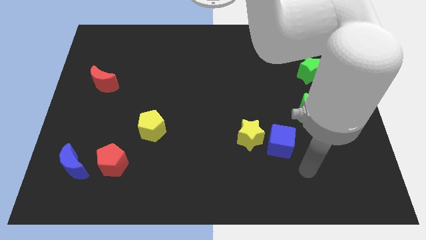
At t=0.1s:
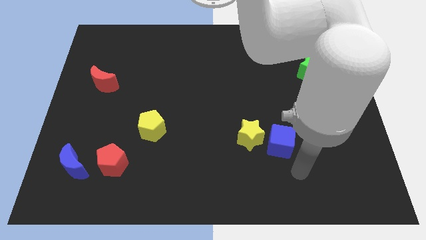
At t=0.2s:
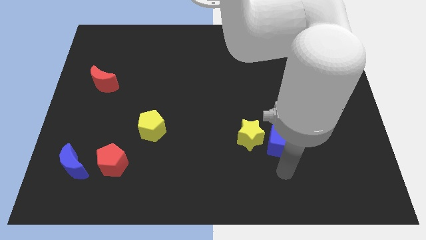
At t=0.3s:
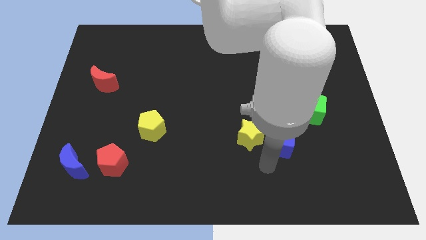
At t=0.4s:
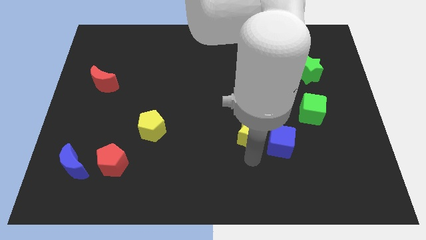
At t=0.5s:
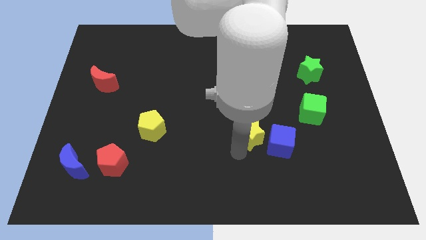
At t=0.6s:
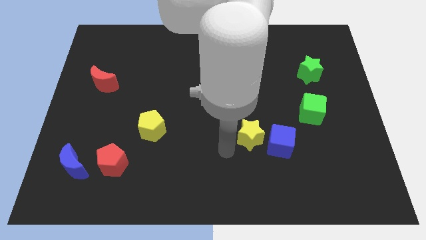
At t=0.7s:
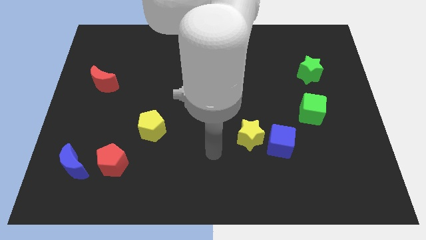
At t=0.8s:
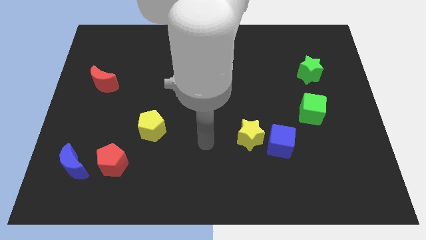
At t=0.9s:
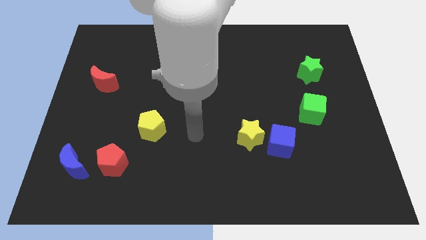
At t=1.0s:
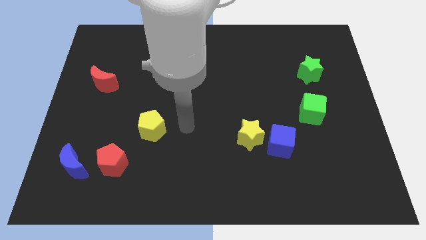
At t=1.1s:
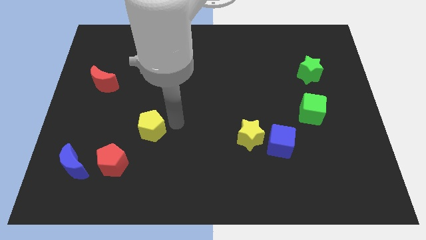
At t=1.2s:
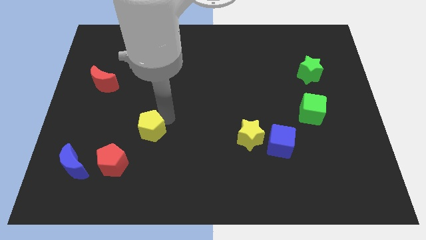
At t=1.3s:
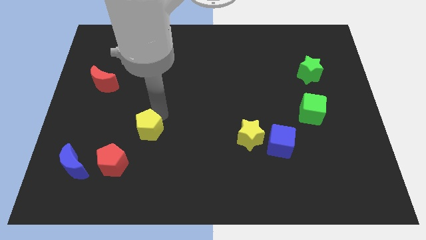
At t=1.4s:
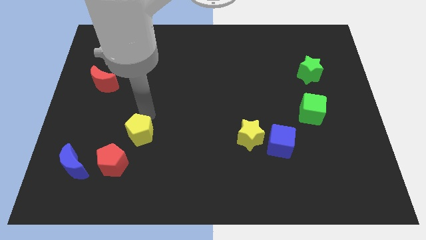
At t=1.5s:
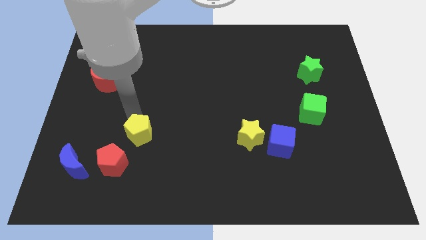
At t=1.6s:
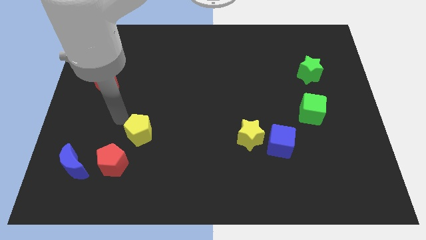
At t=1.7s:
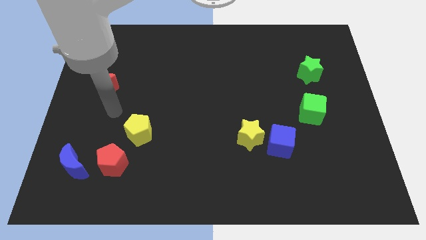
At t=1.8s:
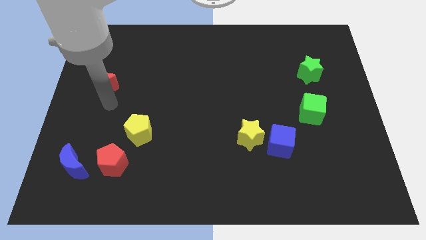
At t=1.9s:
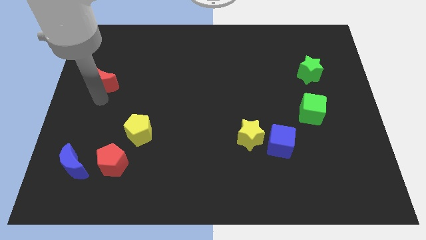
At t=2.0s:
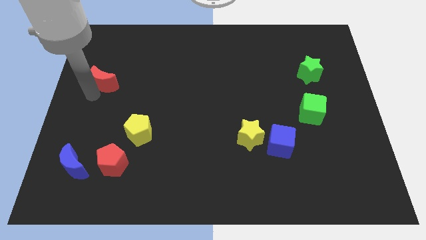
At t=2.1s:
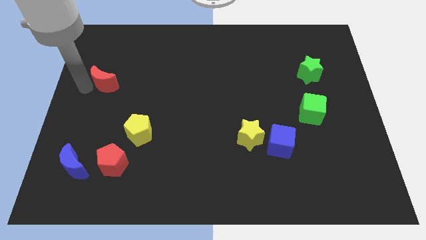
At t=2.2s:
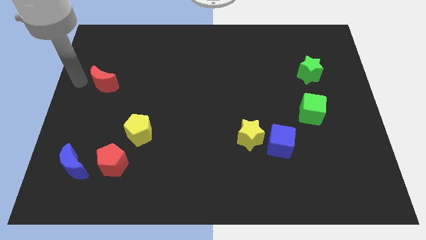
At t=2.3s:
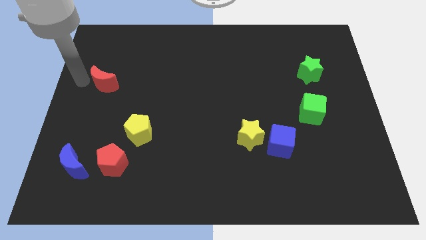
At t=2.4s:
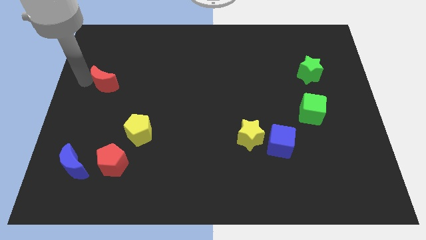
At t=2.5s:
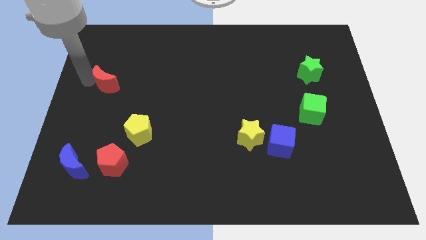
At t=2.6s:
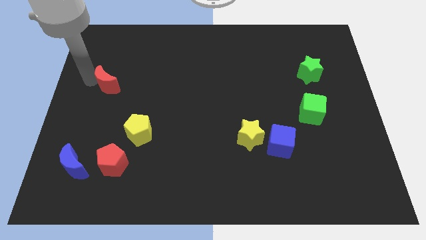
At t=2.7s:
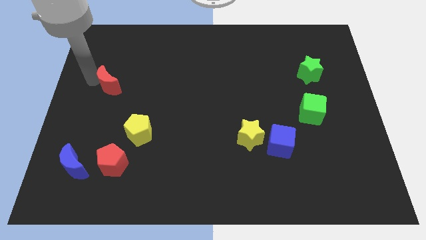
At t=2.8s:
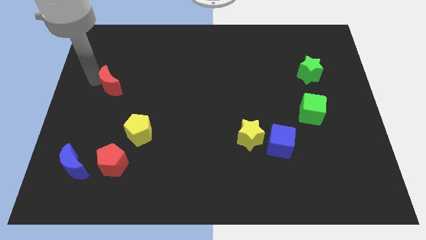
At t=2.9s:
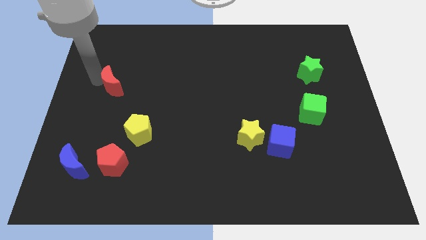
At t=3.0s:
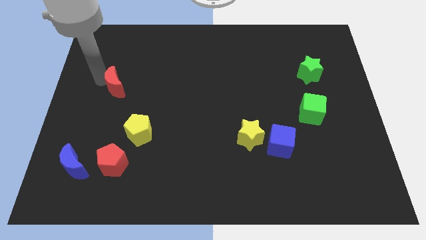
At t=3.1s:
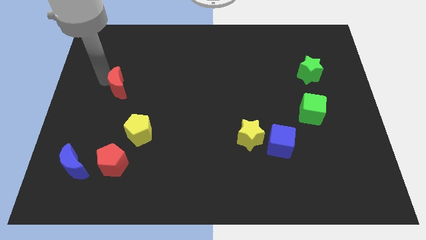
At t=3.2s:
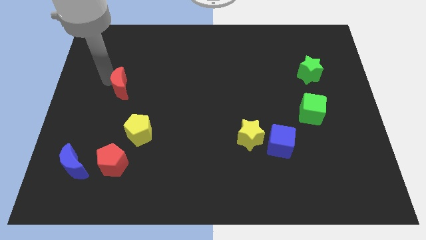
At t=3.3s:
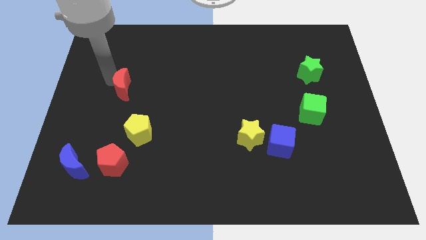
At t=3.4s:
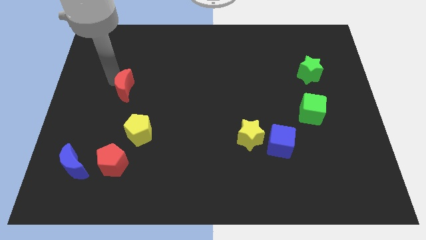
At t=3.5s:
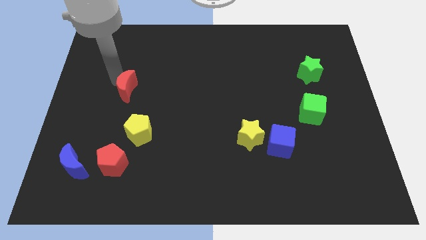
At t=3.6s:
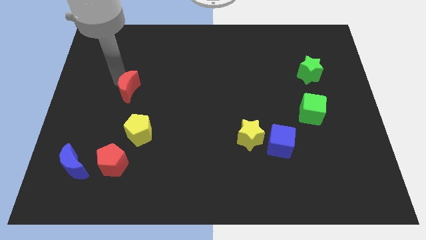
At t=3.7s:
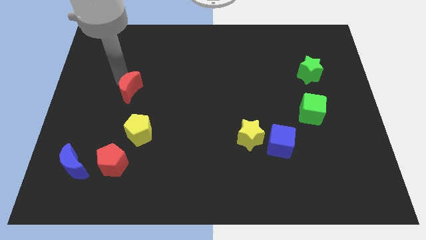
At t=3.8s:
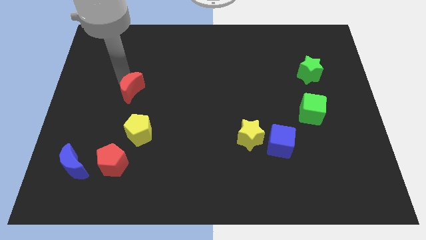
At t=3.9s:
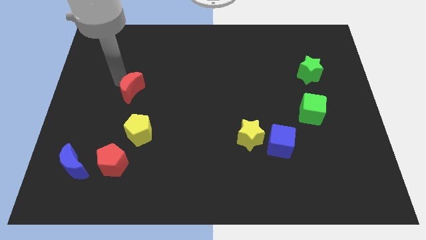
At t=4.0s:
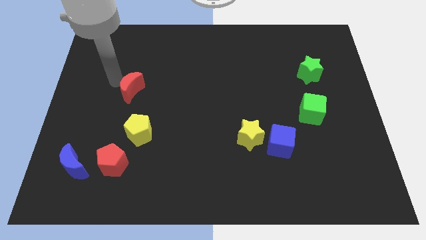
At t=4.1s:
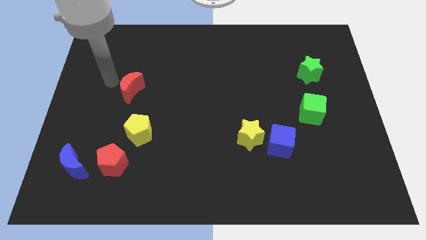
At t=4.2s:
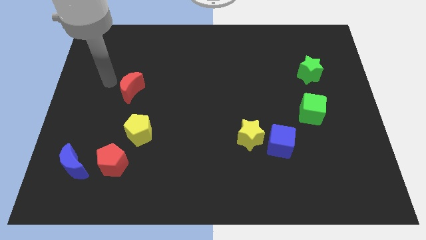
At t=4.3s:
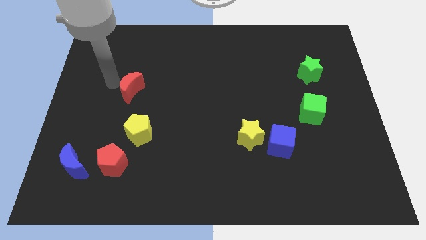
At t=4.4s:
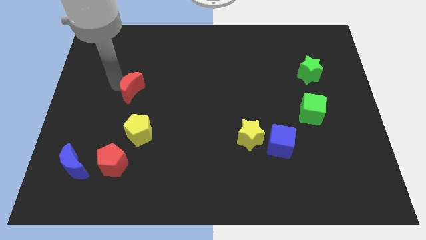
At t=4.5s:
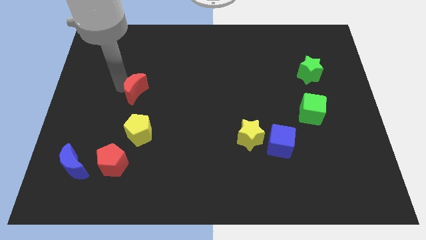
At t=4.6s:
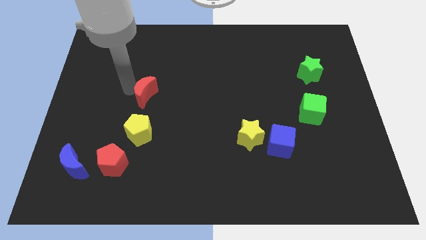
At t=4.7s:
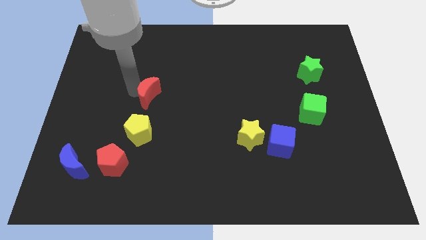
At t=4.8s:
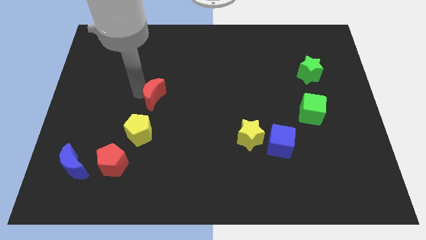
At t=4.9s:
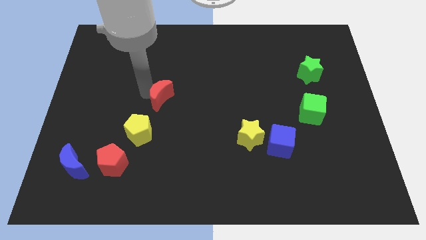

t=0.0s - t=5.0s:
push the red moon diagonally up and to the right of the yellow pentagon

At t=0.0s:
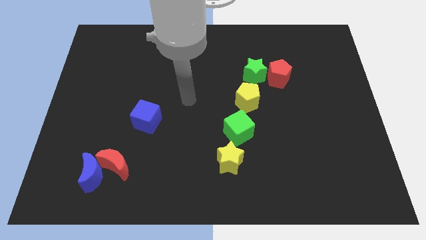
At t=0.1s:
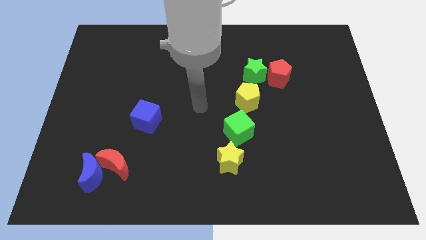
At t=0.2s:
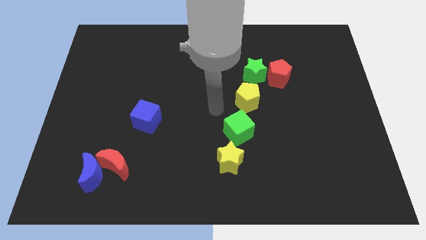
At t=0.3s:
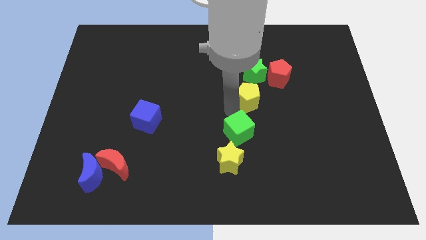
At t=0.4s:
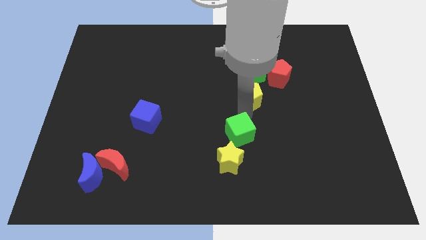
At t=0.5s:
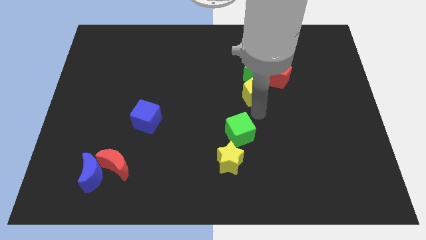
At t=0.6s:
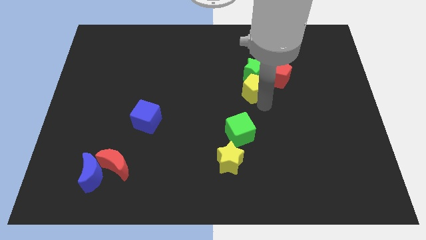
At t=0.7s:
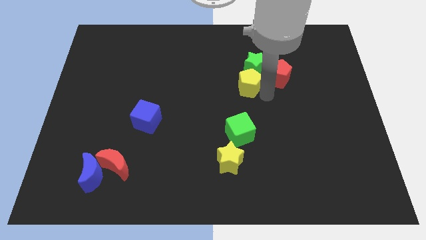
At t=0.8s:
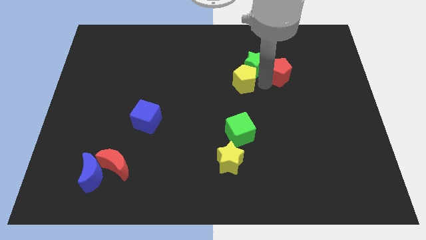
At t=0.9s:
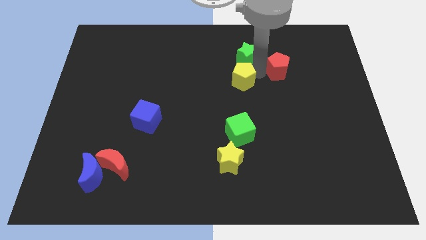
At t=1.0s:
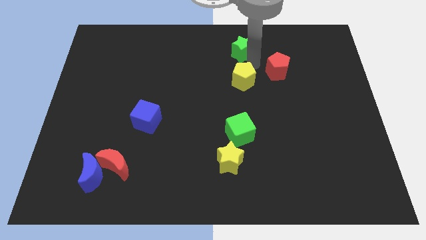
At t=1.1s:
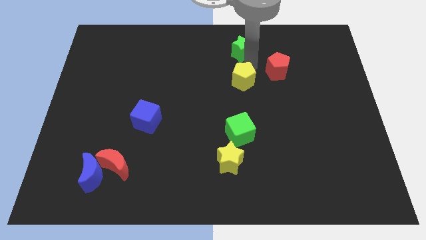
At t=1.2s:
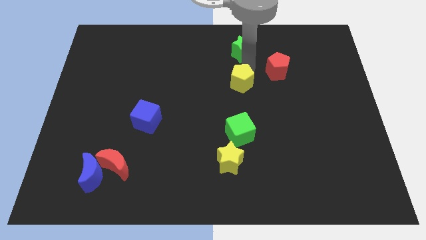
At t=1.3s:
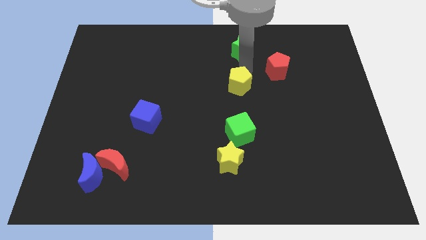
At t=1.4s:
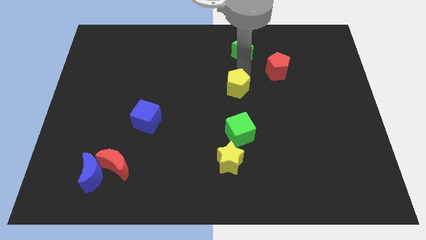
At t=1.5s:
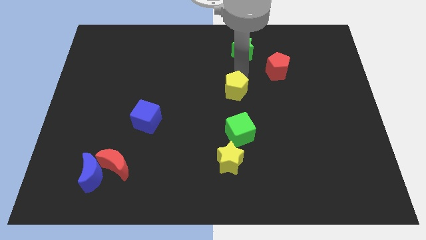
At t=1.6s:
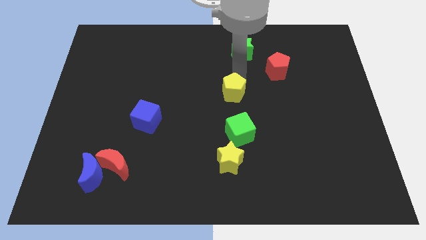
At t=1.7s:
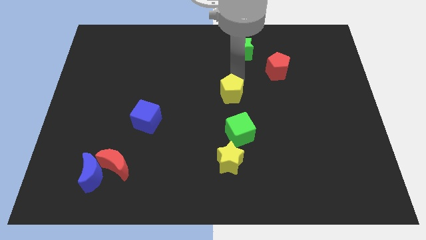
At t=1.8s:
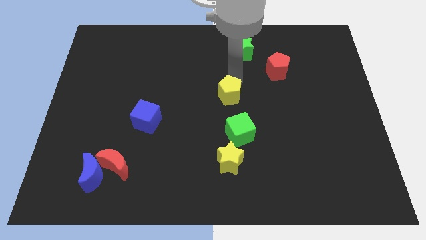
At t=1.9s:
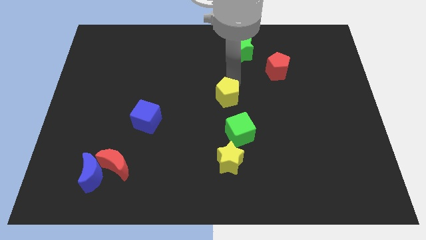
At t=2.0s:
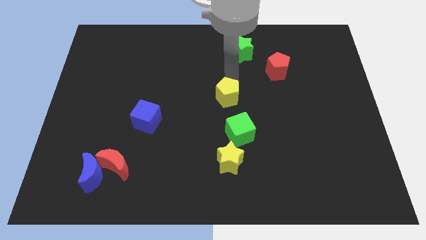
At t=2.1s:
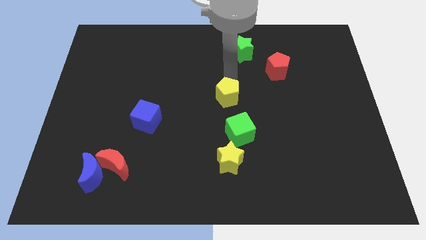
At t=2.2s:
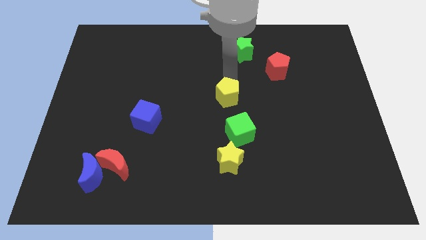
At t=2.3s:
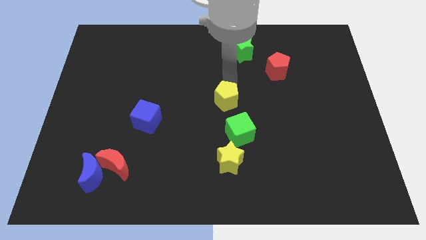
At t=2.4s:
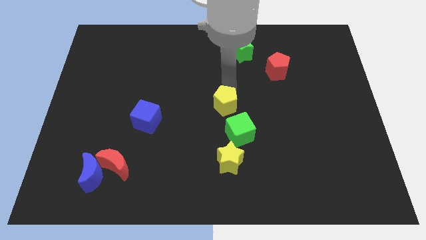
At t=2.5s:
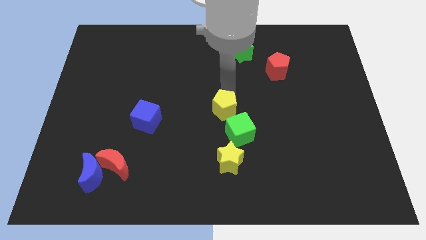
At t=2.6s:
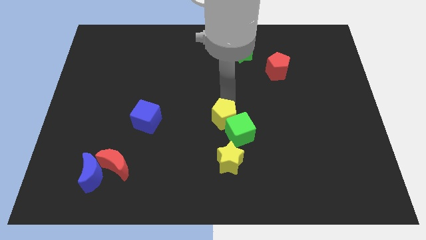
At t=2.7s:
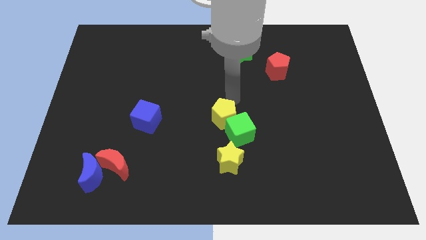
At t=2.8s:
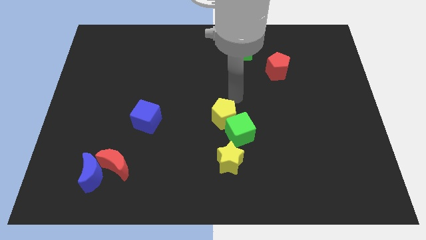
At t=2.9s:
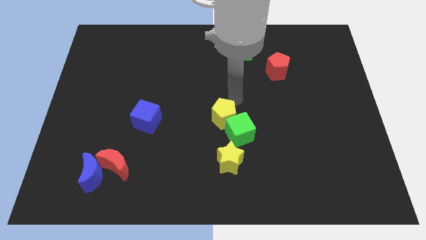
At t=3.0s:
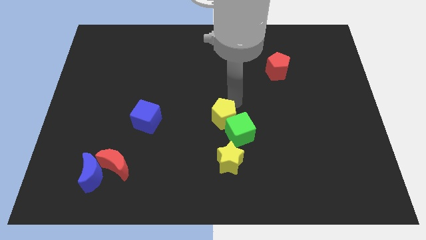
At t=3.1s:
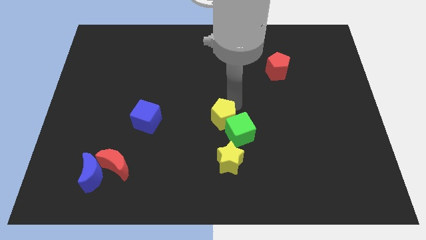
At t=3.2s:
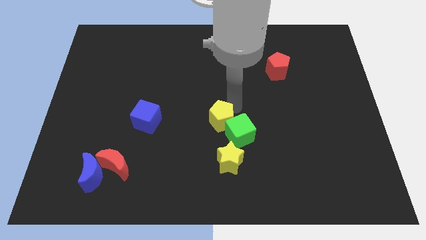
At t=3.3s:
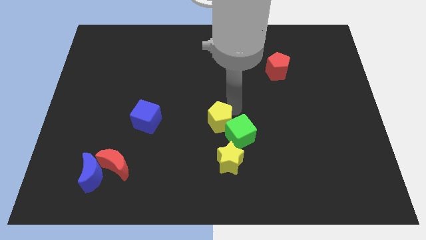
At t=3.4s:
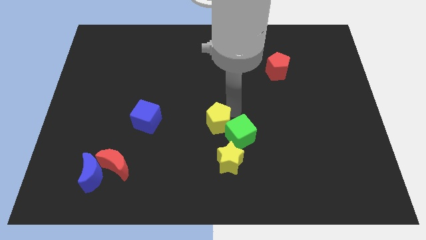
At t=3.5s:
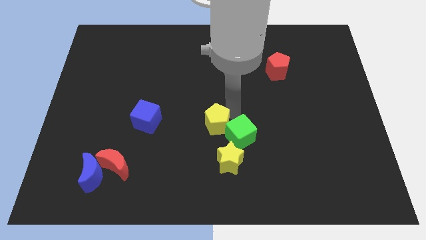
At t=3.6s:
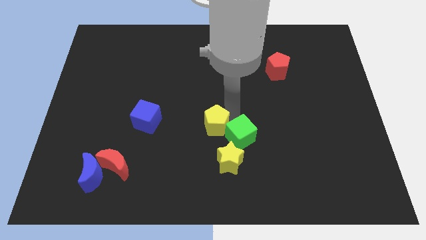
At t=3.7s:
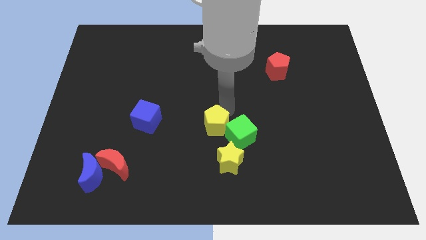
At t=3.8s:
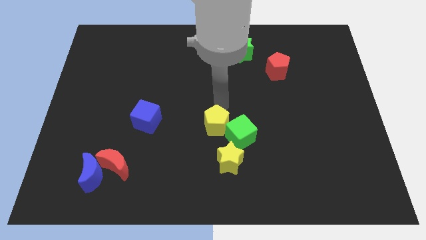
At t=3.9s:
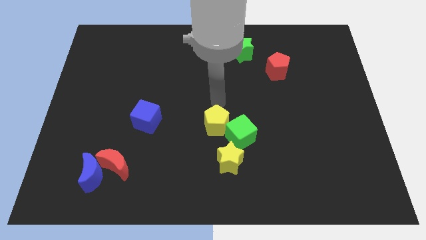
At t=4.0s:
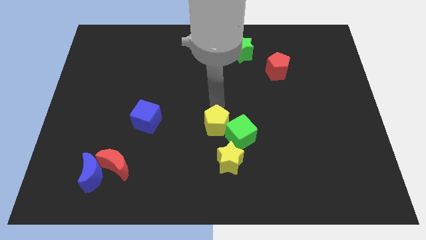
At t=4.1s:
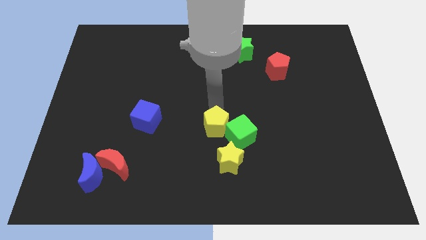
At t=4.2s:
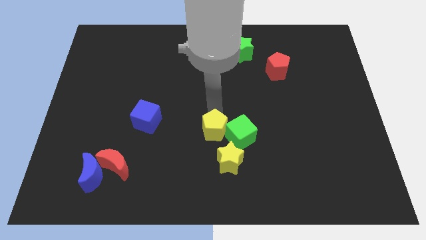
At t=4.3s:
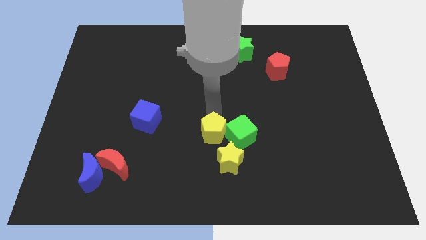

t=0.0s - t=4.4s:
slide the yellow pentagon to the bottom left of the green cube
